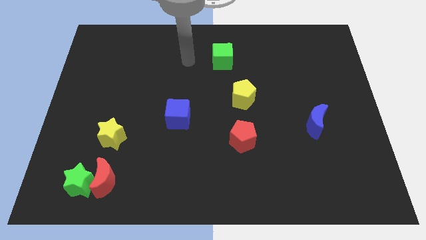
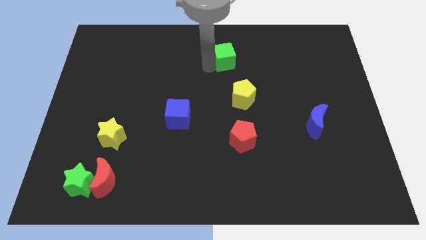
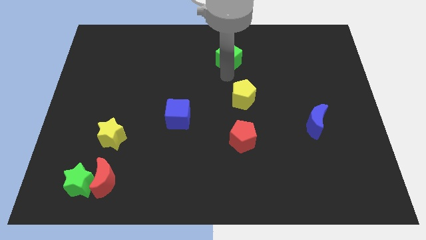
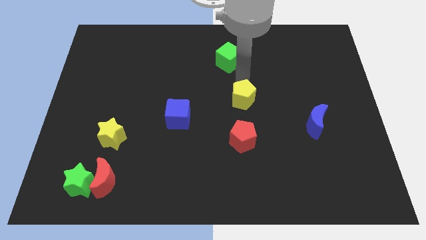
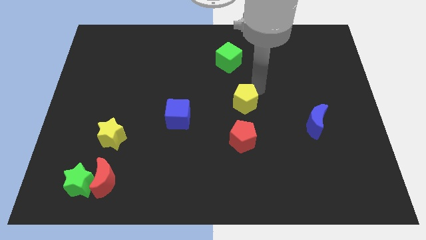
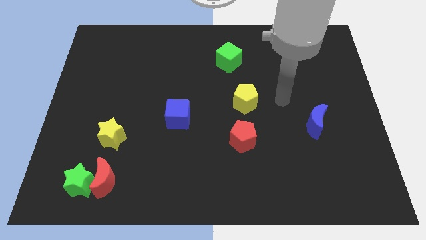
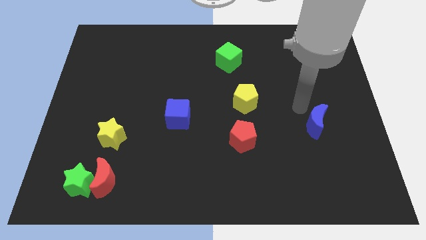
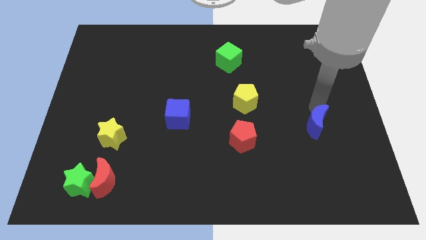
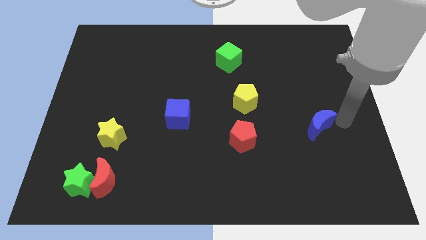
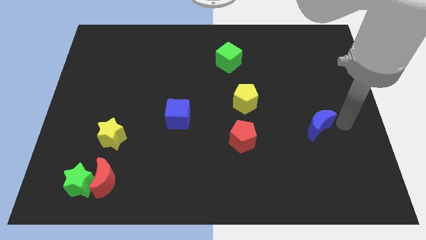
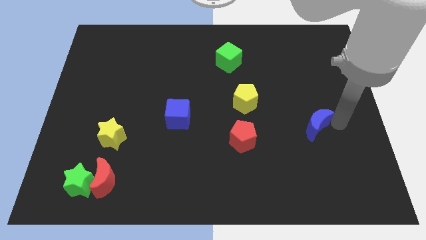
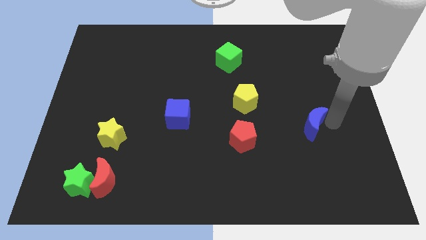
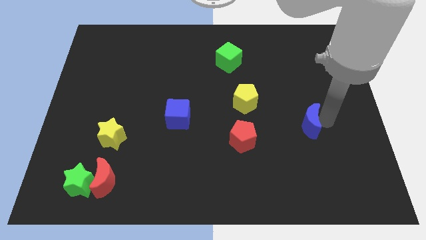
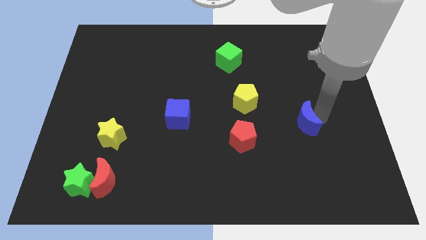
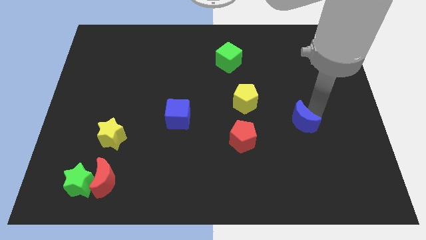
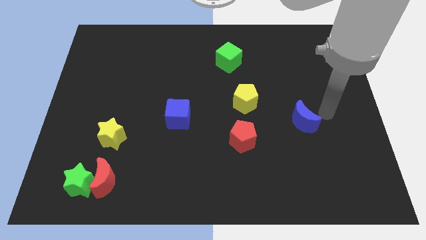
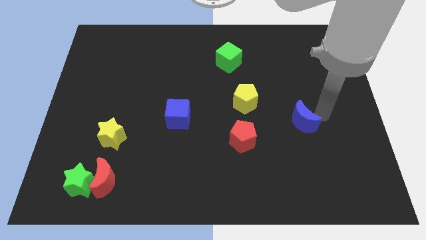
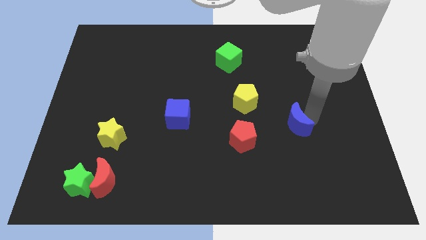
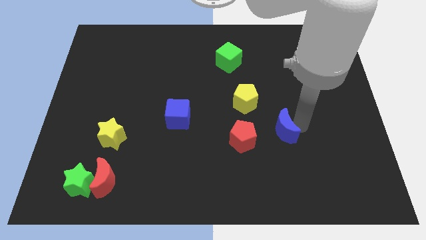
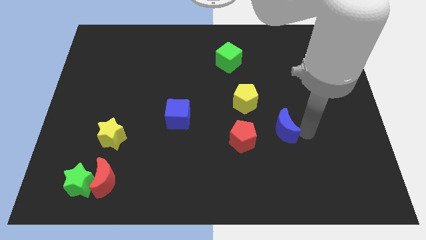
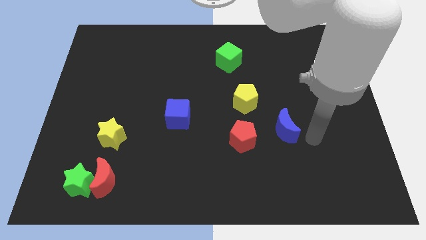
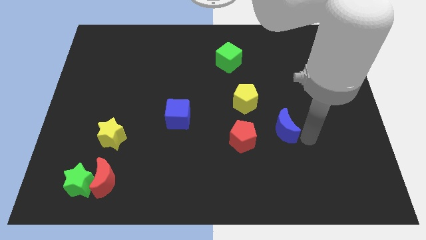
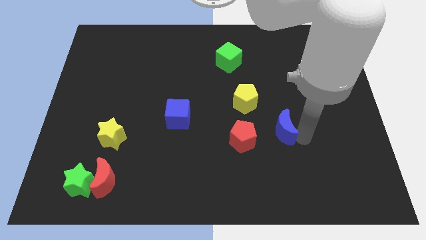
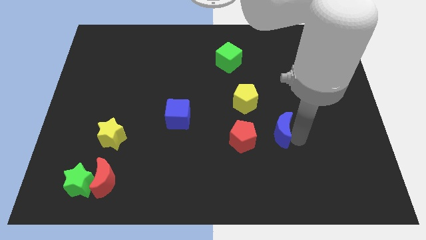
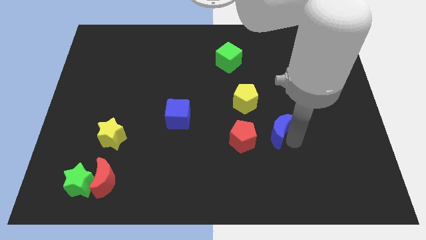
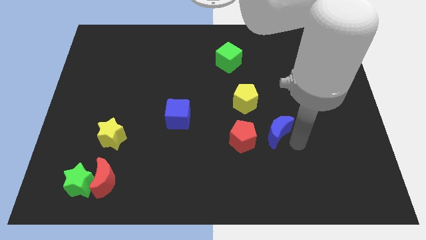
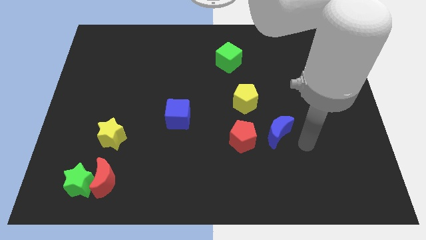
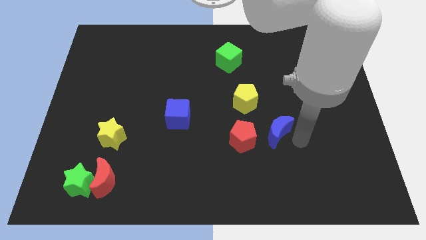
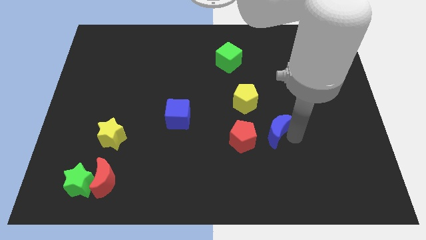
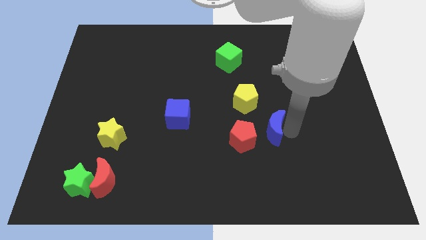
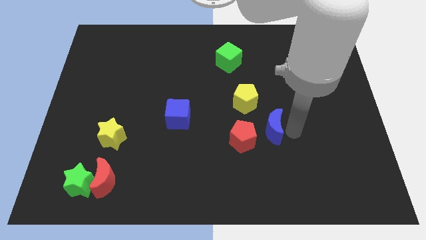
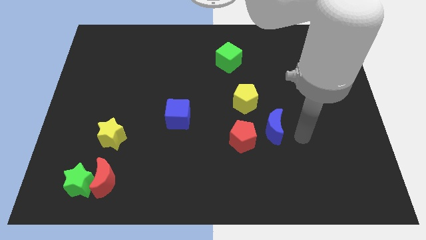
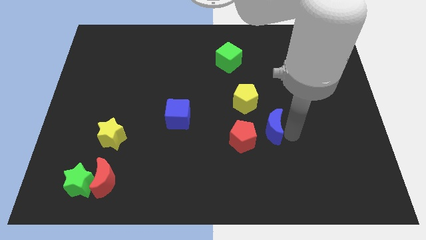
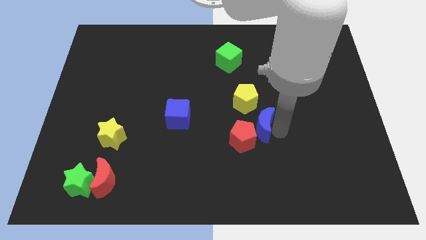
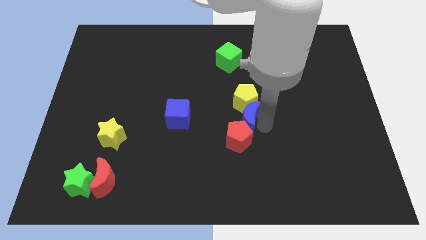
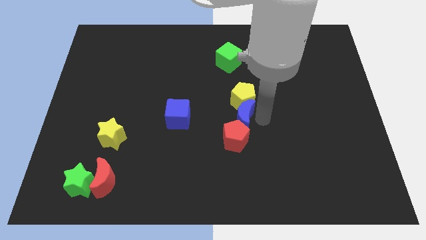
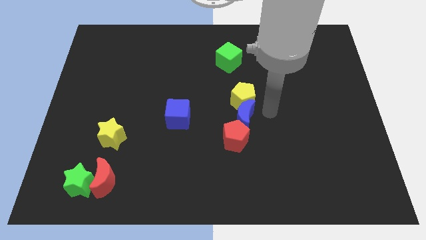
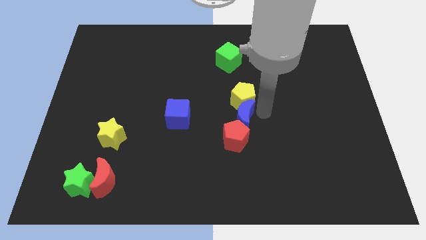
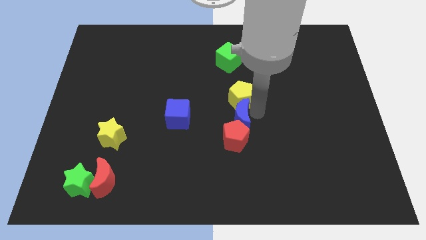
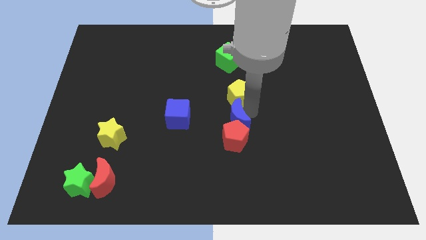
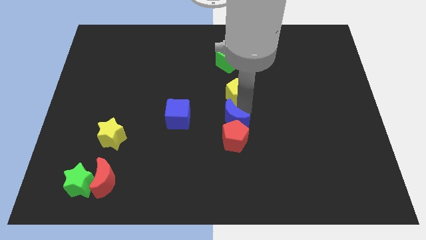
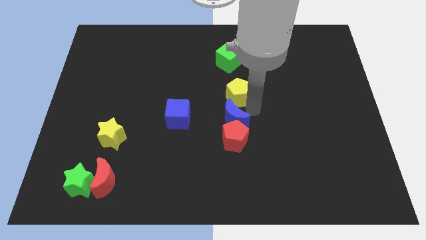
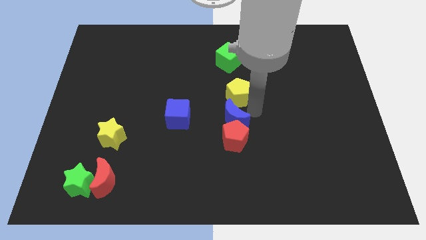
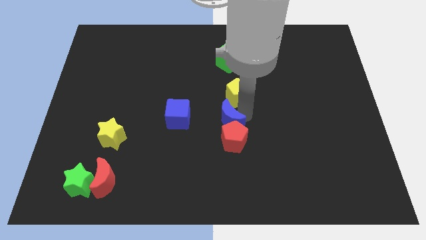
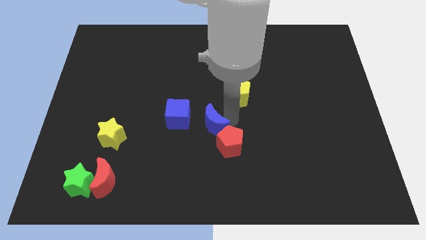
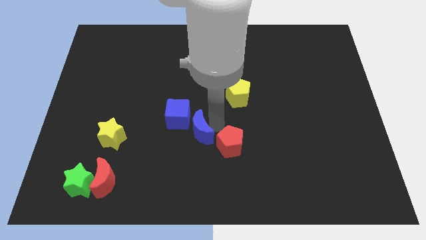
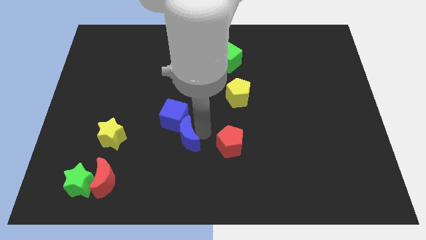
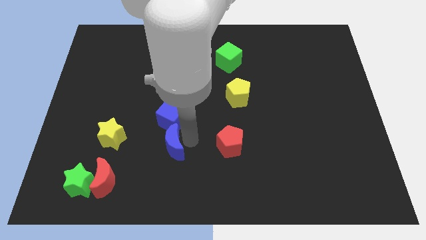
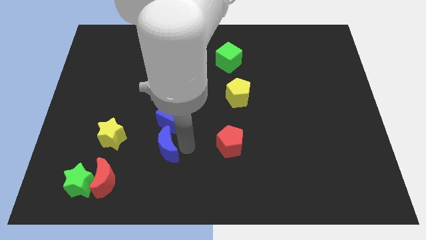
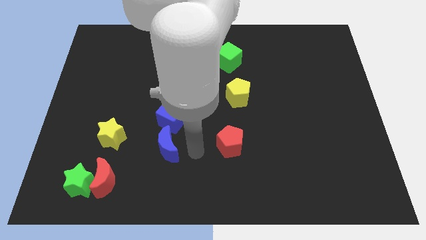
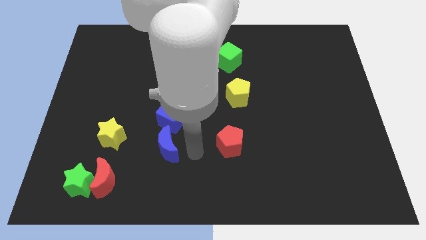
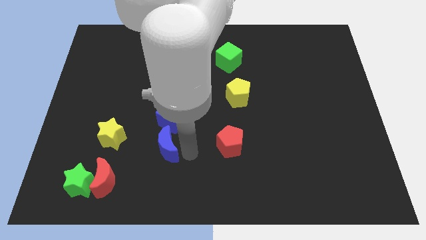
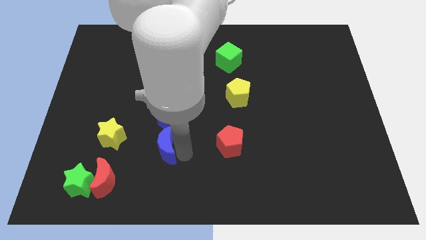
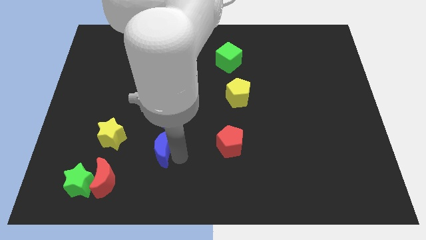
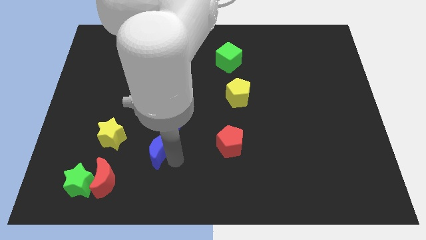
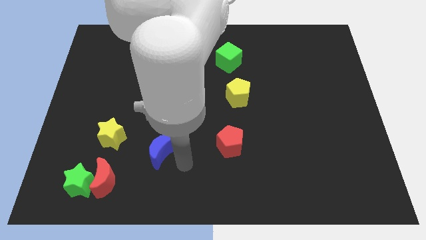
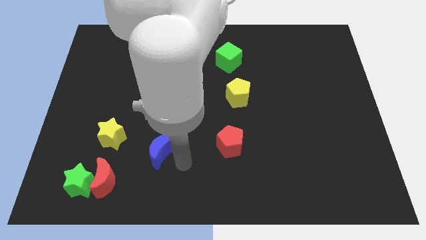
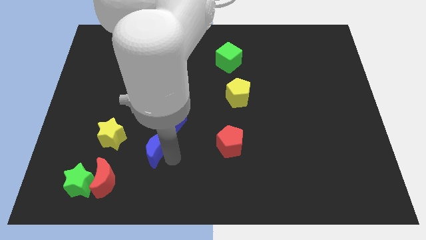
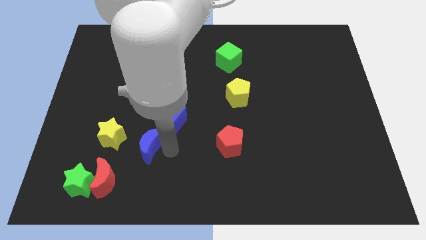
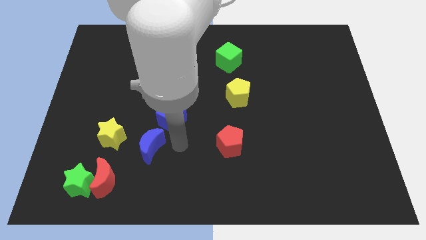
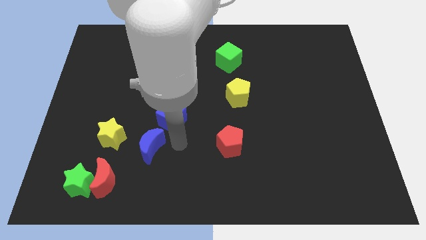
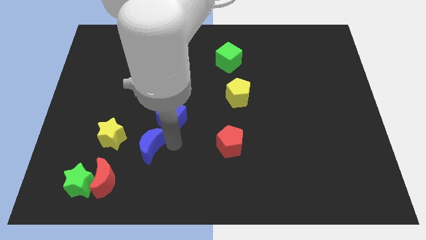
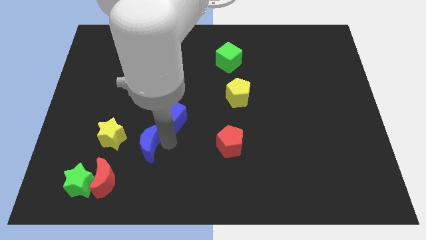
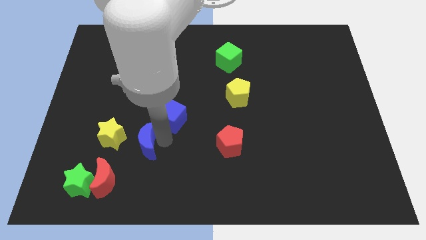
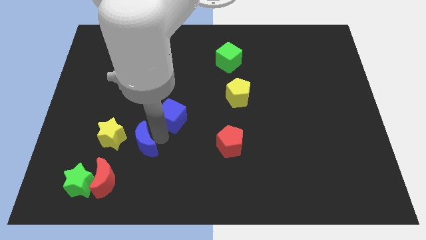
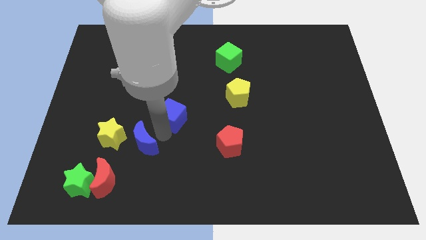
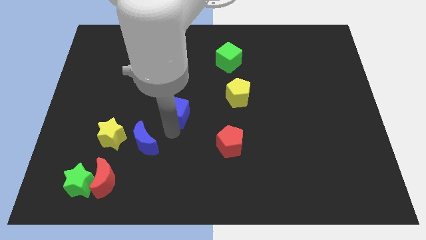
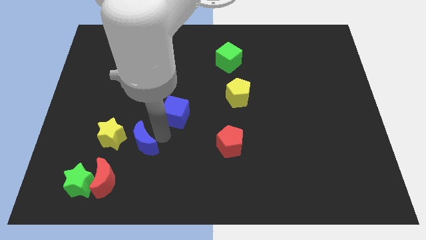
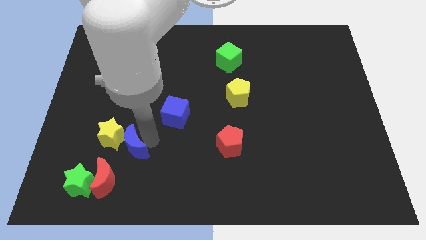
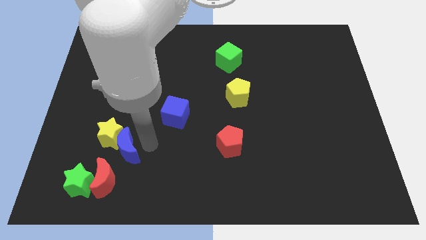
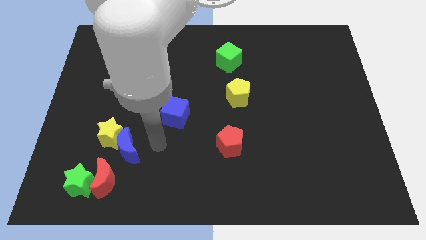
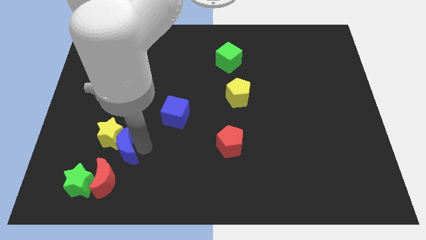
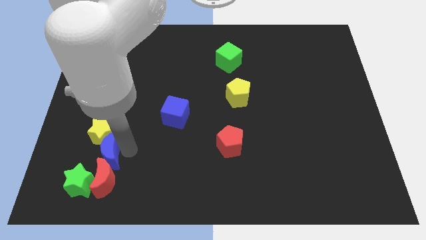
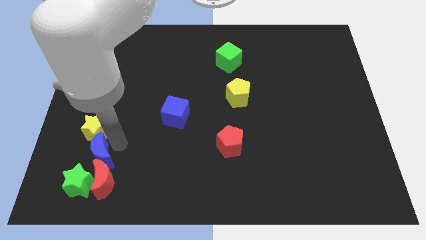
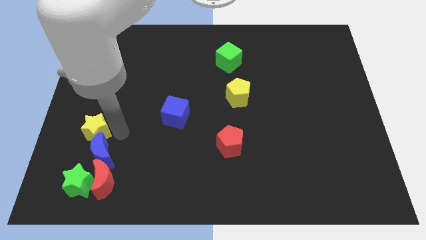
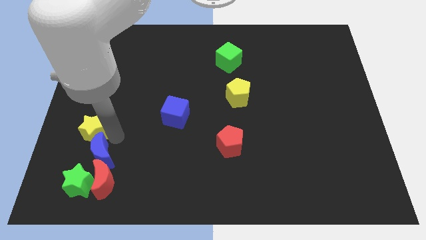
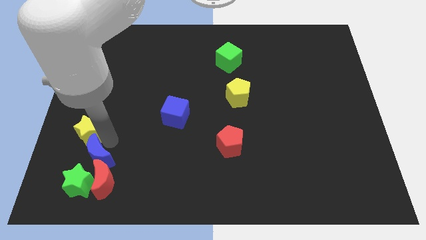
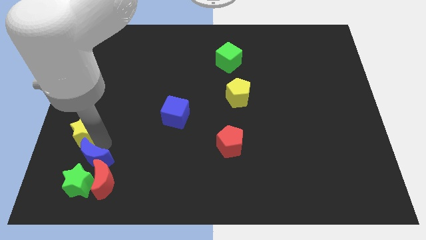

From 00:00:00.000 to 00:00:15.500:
push the blue moon to the green star
